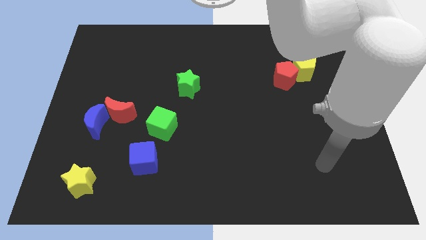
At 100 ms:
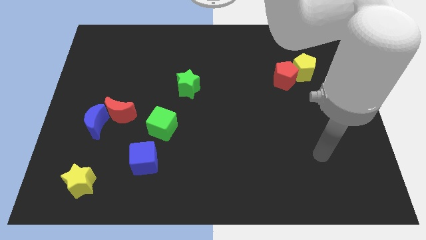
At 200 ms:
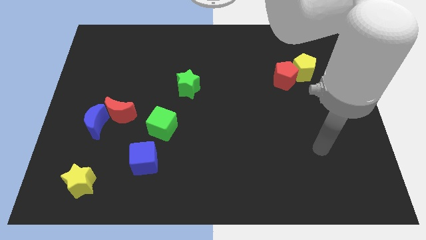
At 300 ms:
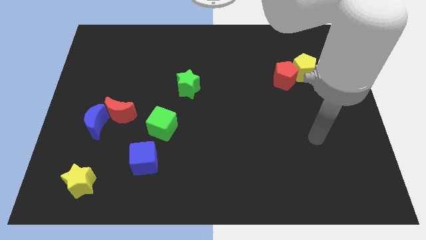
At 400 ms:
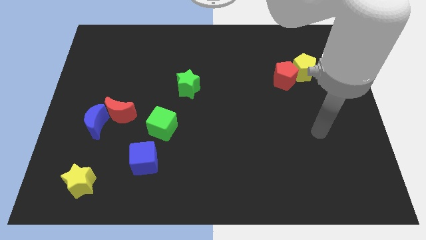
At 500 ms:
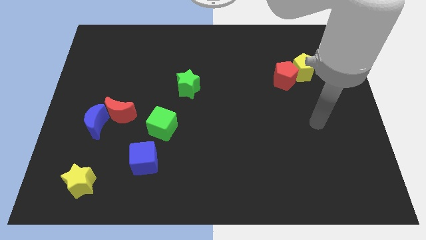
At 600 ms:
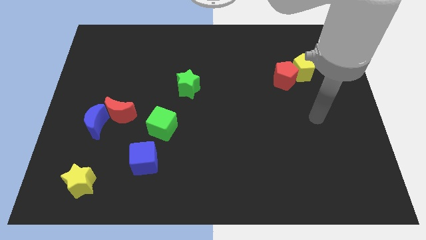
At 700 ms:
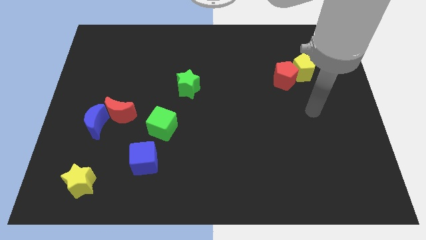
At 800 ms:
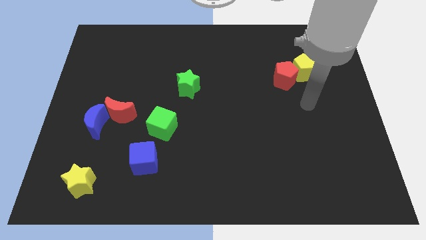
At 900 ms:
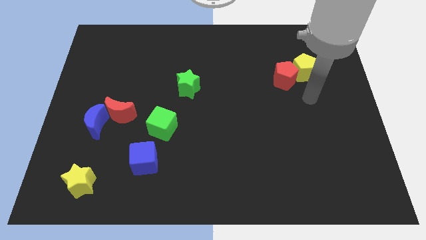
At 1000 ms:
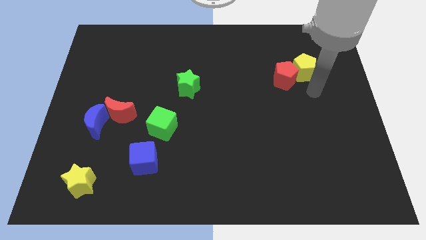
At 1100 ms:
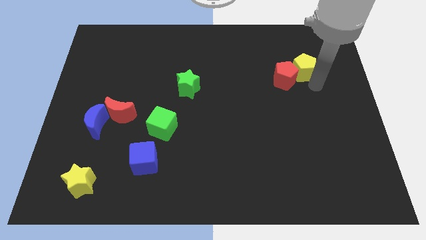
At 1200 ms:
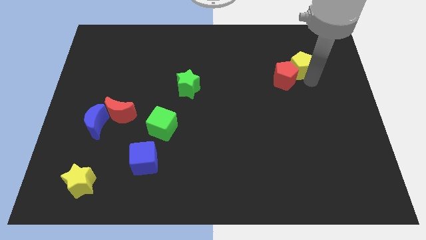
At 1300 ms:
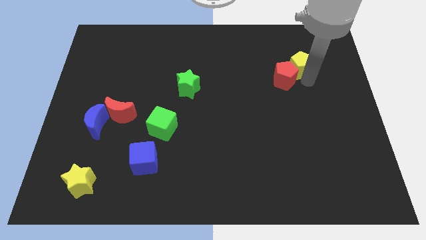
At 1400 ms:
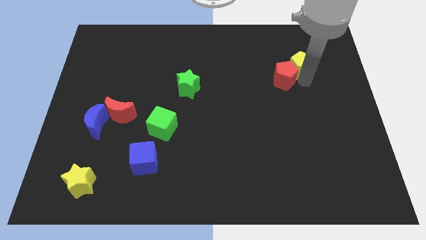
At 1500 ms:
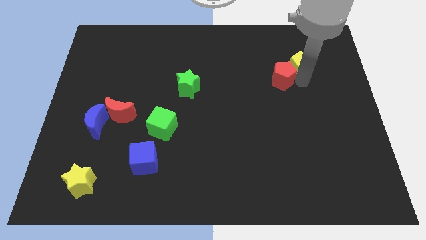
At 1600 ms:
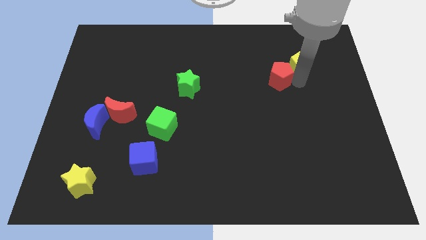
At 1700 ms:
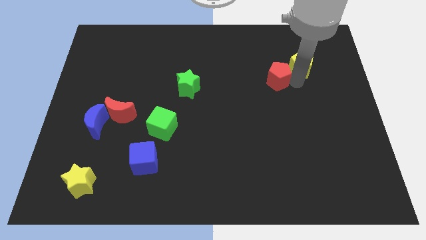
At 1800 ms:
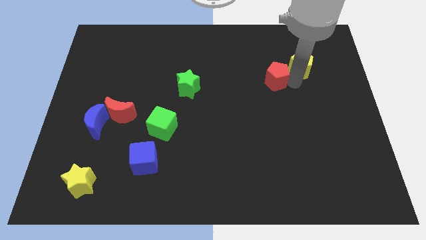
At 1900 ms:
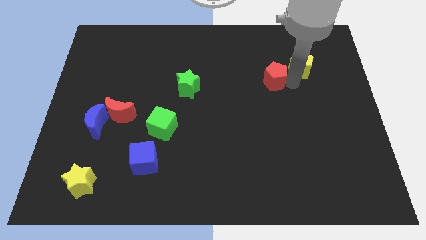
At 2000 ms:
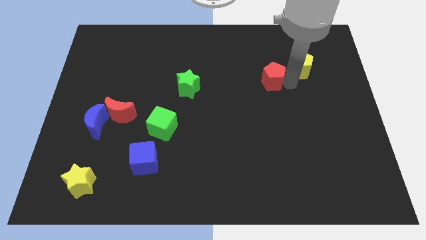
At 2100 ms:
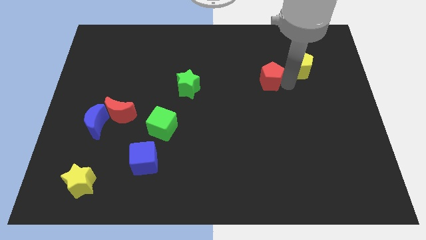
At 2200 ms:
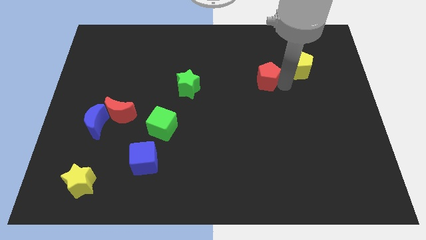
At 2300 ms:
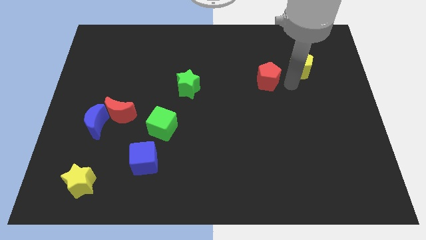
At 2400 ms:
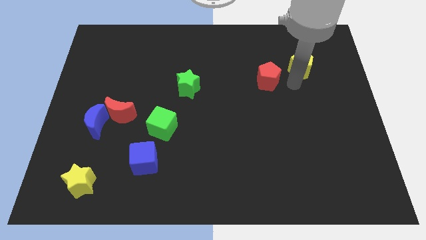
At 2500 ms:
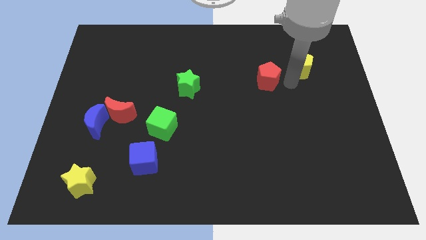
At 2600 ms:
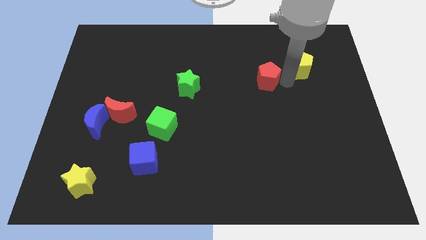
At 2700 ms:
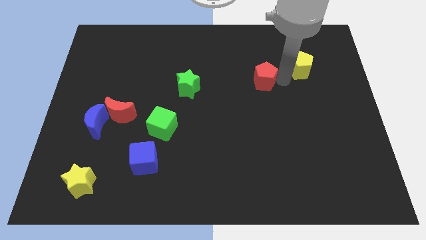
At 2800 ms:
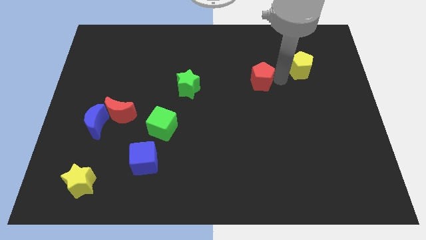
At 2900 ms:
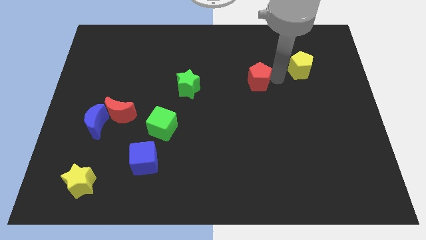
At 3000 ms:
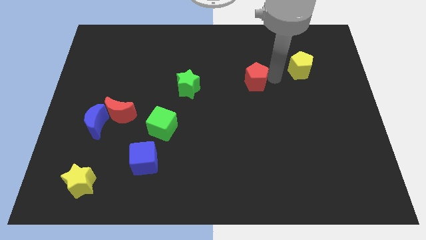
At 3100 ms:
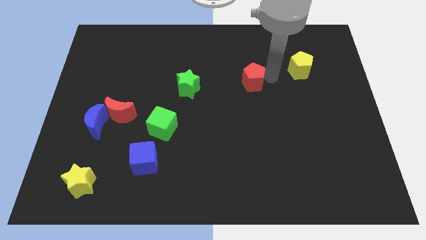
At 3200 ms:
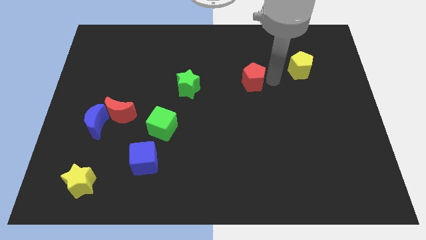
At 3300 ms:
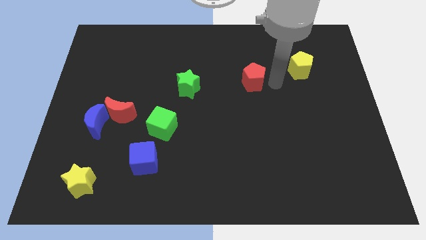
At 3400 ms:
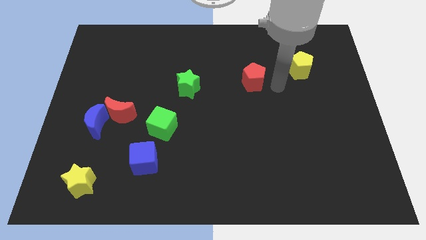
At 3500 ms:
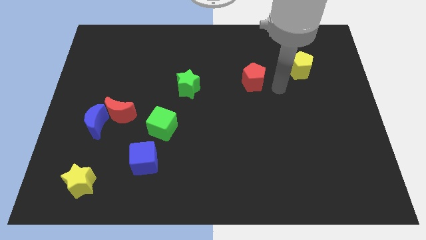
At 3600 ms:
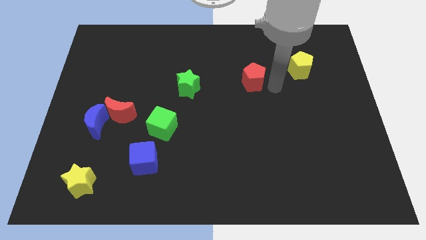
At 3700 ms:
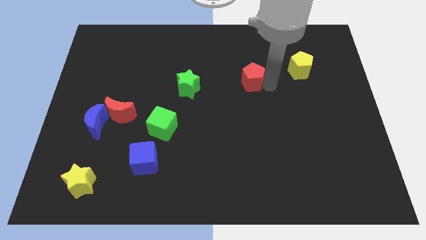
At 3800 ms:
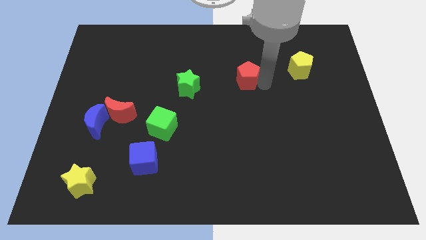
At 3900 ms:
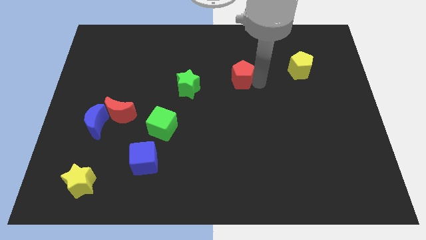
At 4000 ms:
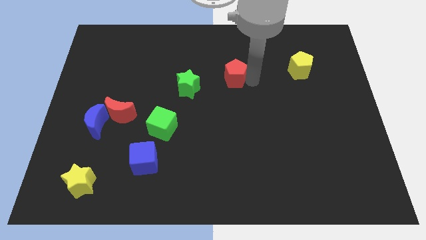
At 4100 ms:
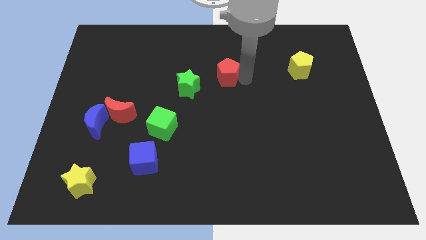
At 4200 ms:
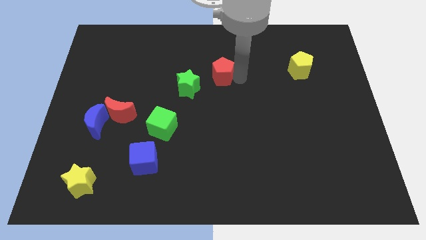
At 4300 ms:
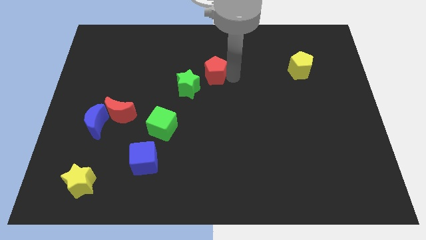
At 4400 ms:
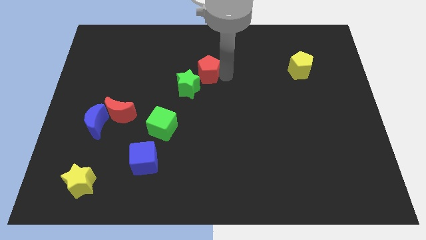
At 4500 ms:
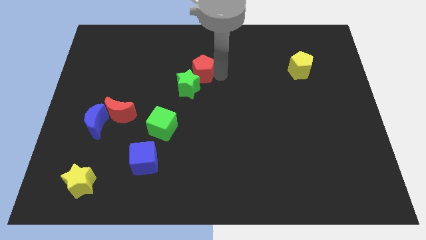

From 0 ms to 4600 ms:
push the red pentagon left

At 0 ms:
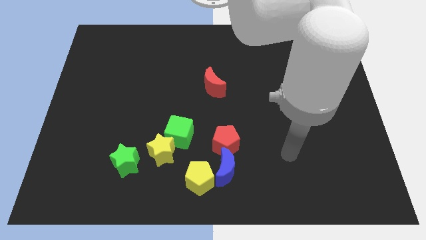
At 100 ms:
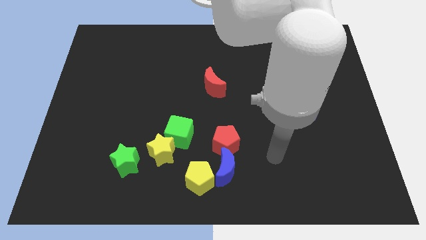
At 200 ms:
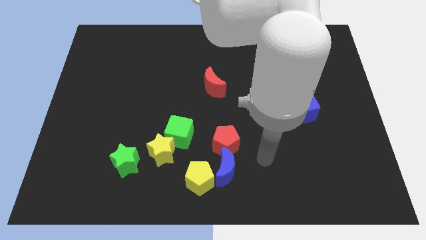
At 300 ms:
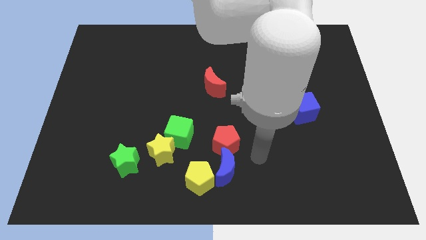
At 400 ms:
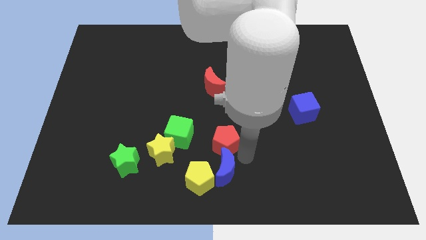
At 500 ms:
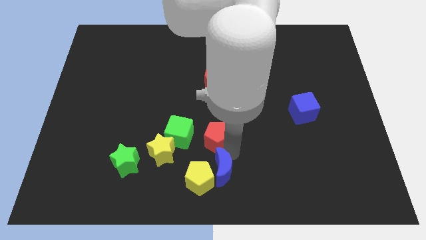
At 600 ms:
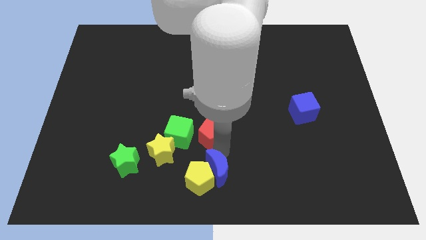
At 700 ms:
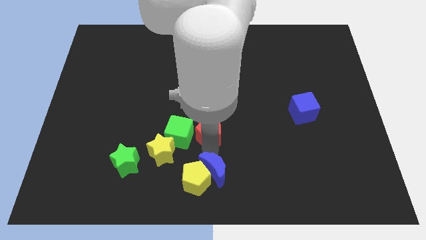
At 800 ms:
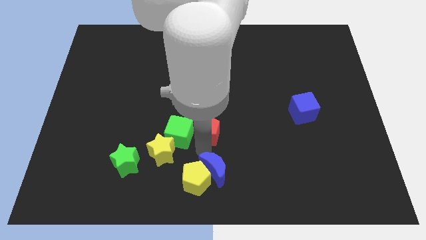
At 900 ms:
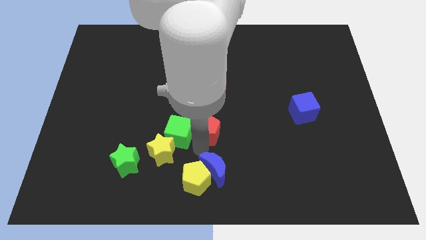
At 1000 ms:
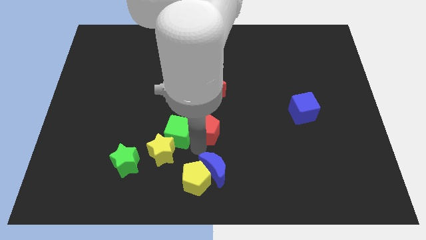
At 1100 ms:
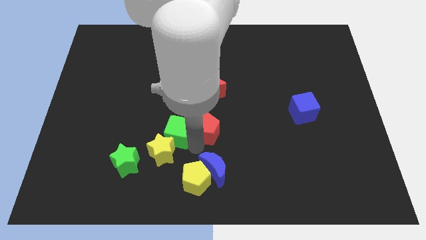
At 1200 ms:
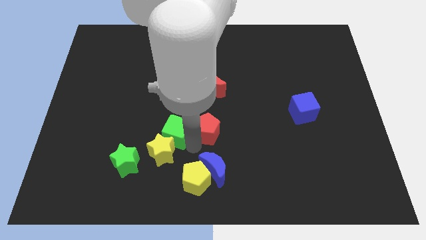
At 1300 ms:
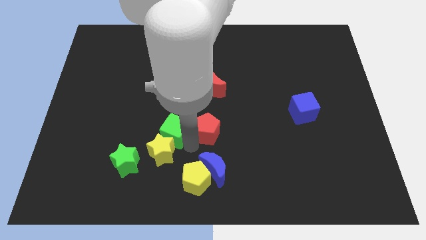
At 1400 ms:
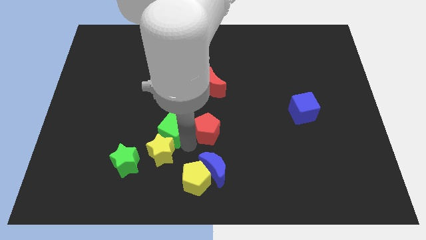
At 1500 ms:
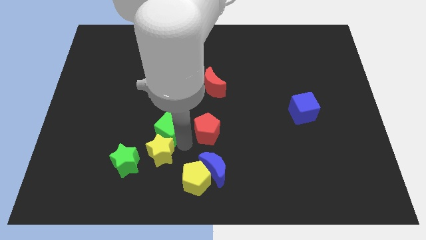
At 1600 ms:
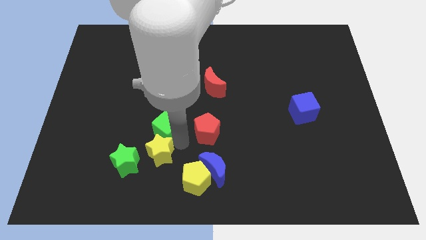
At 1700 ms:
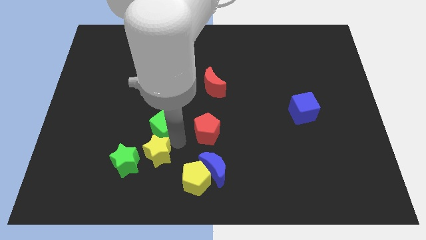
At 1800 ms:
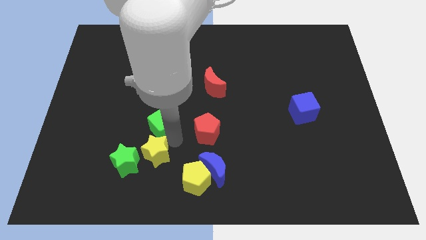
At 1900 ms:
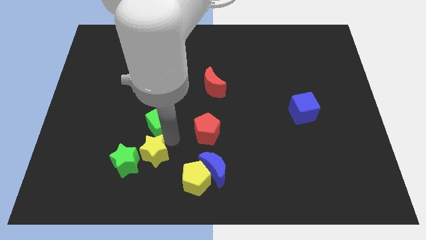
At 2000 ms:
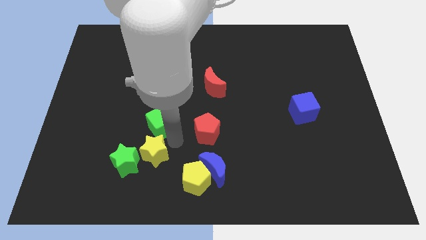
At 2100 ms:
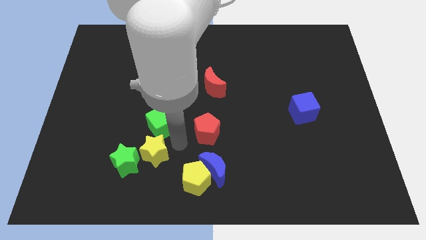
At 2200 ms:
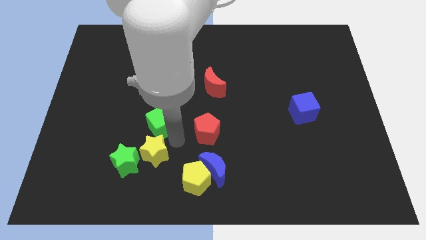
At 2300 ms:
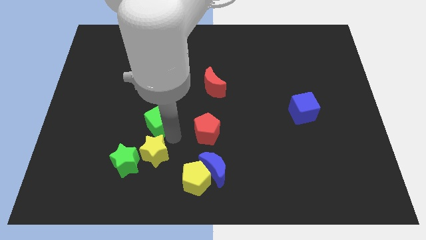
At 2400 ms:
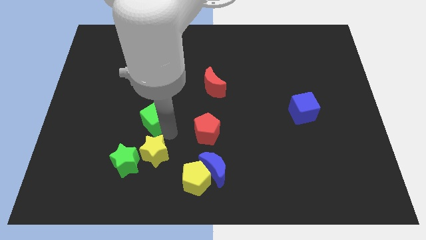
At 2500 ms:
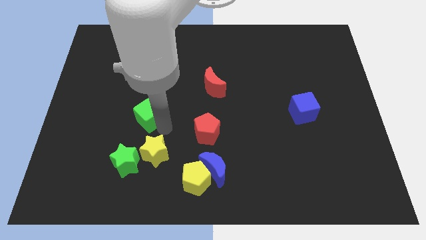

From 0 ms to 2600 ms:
slightly push the green cube up and then left

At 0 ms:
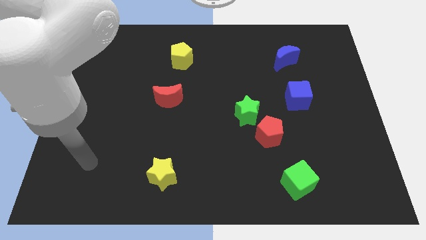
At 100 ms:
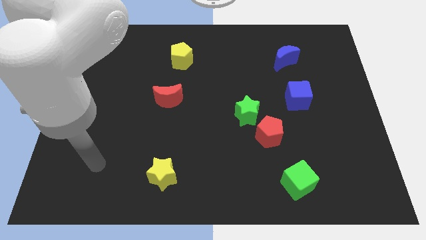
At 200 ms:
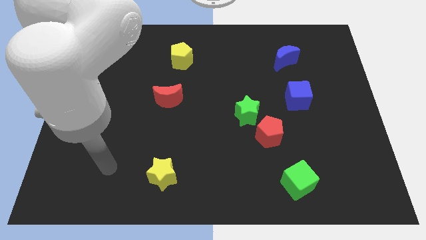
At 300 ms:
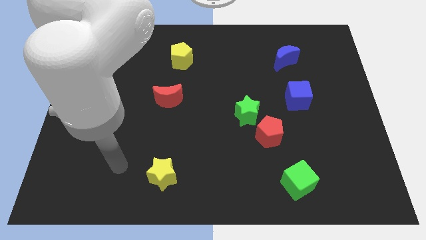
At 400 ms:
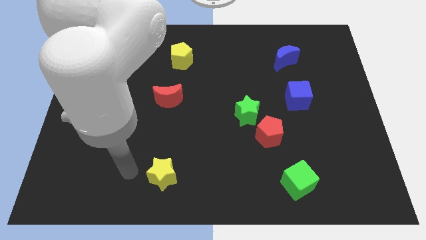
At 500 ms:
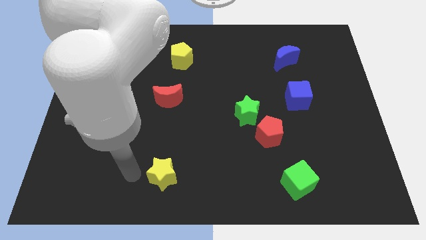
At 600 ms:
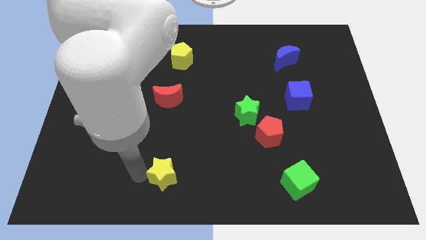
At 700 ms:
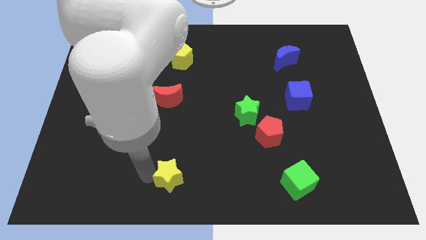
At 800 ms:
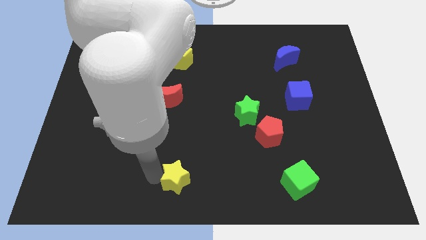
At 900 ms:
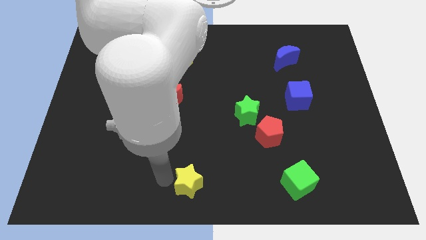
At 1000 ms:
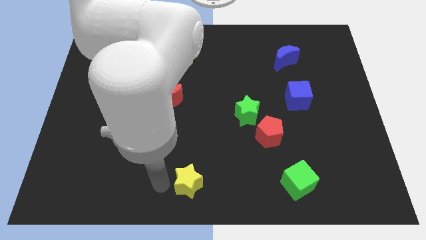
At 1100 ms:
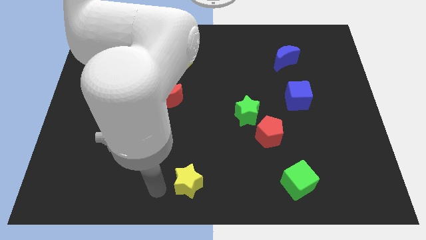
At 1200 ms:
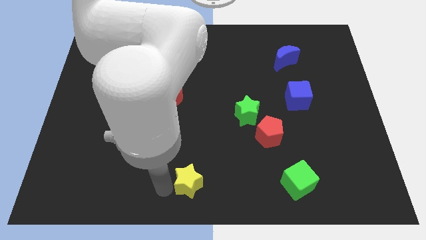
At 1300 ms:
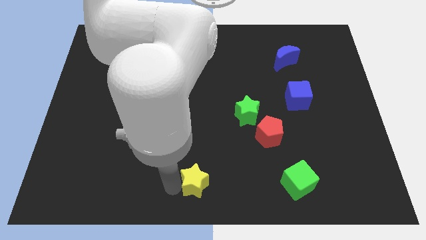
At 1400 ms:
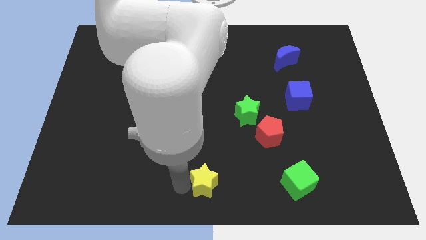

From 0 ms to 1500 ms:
push the yellow star somewhat to the right
